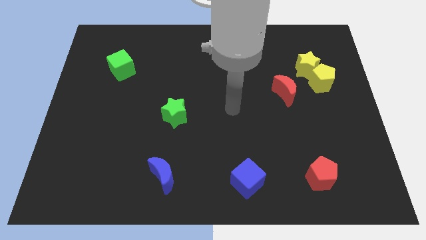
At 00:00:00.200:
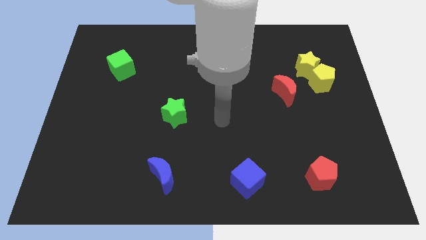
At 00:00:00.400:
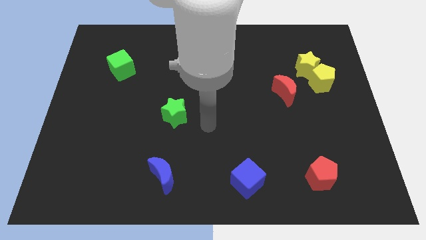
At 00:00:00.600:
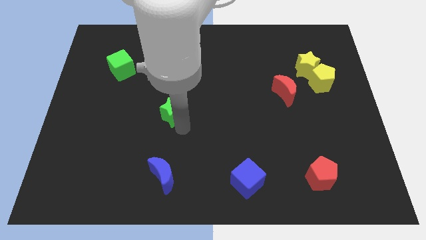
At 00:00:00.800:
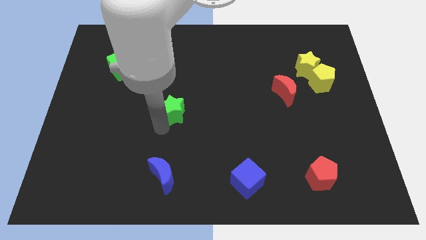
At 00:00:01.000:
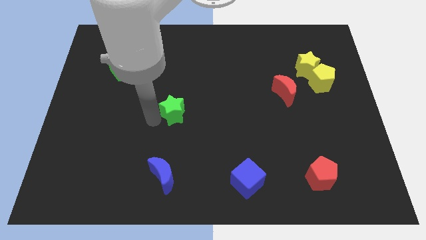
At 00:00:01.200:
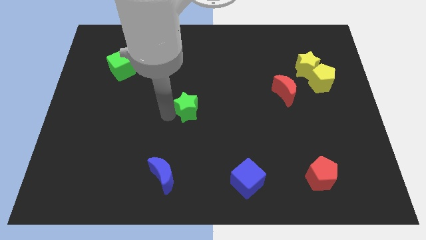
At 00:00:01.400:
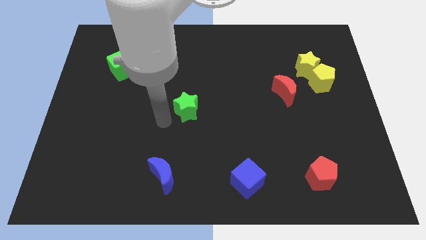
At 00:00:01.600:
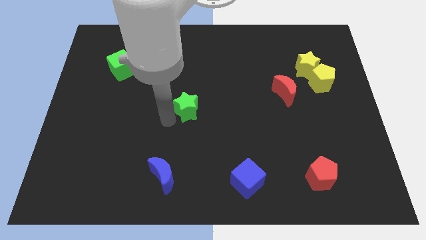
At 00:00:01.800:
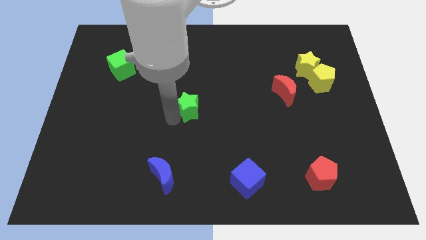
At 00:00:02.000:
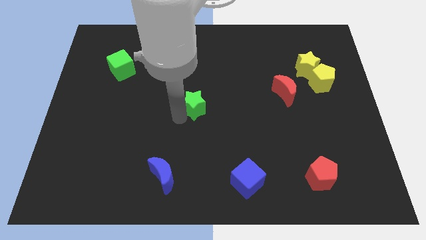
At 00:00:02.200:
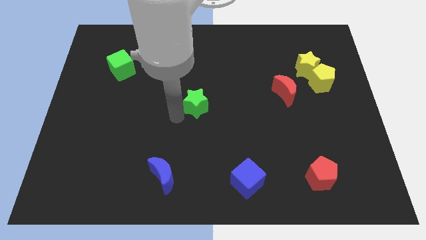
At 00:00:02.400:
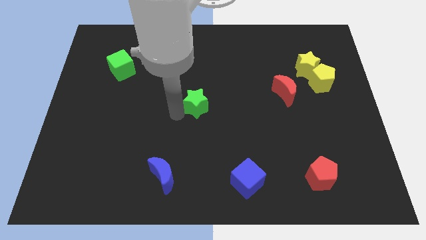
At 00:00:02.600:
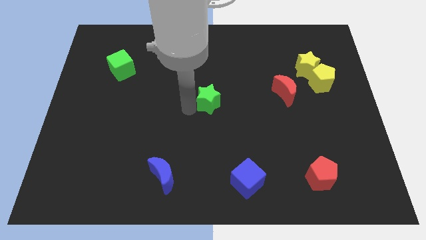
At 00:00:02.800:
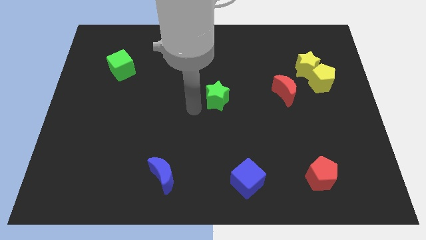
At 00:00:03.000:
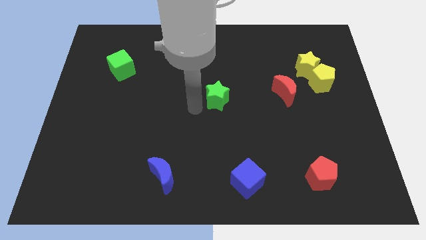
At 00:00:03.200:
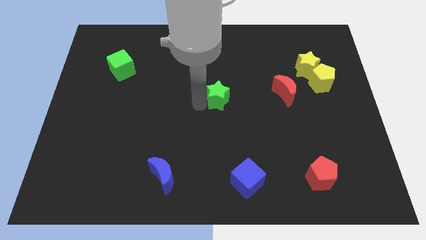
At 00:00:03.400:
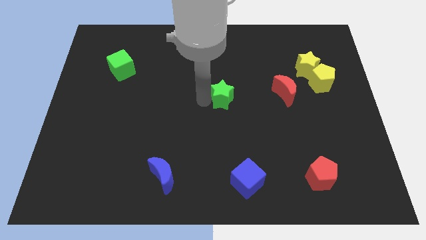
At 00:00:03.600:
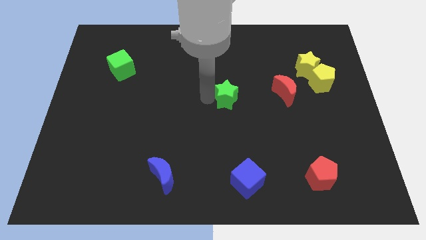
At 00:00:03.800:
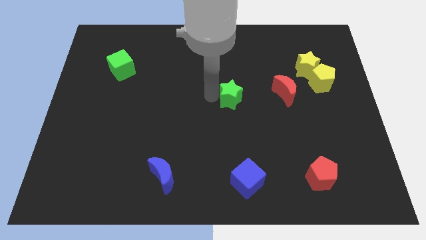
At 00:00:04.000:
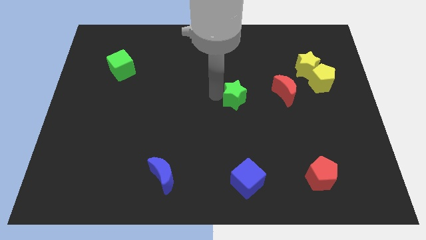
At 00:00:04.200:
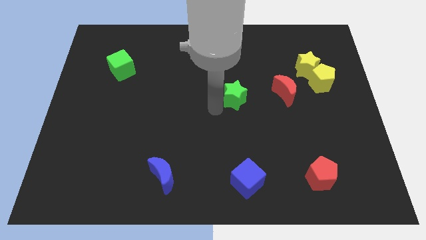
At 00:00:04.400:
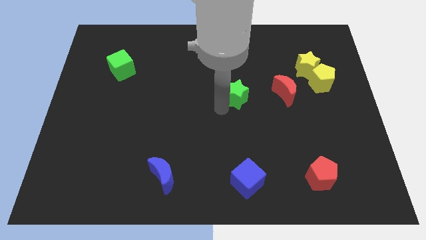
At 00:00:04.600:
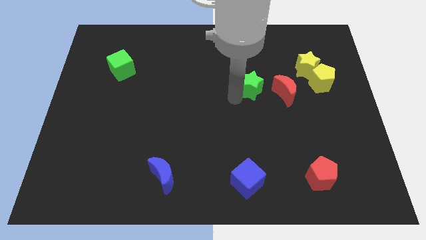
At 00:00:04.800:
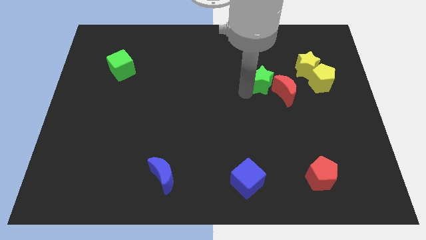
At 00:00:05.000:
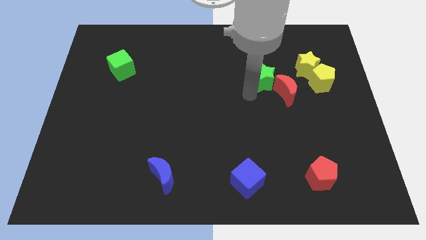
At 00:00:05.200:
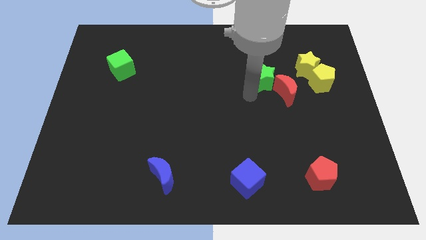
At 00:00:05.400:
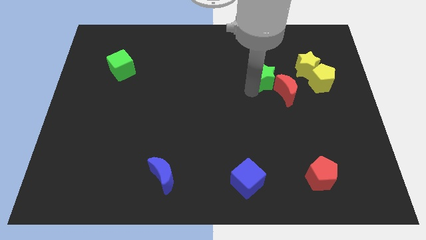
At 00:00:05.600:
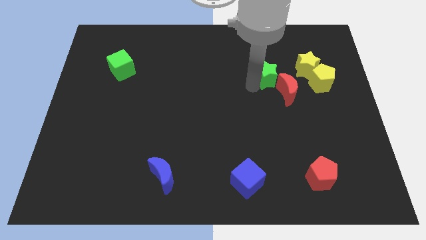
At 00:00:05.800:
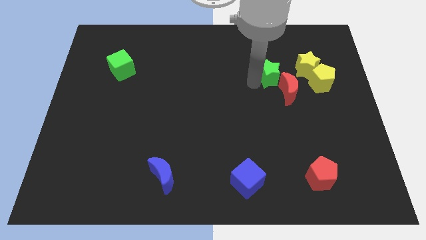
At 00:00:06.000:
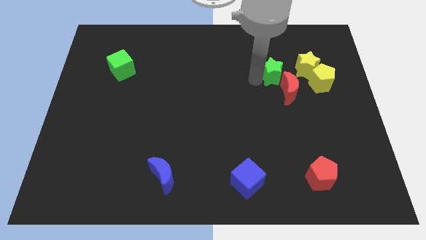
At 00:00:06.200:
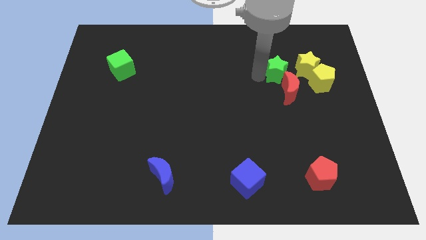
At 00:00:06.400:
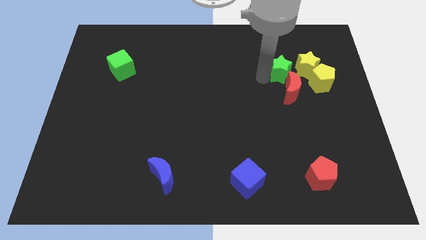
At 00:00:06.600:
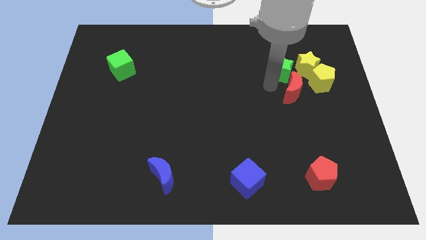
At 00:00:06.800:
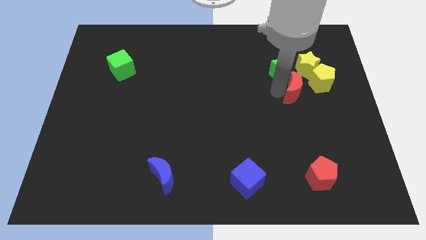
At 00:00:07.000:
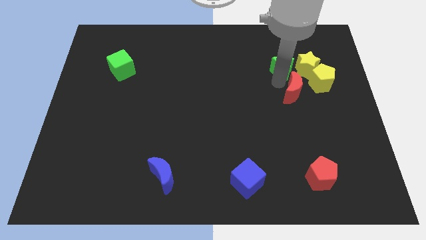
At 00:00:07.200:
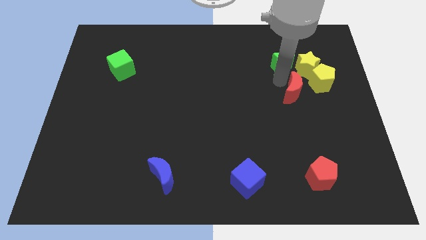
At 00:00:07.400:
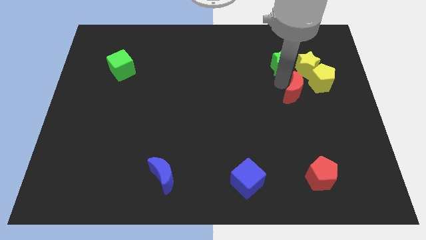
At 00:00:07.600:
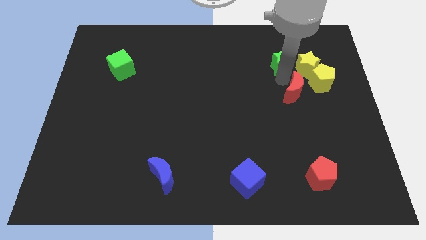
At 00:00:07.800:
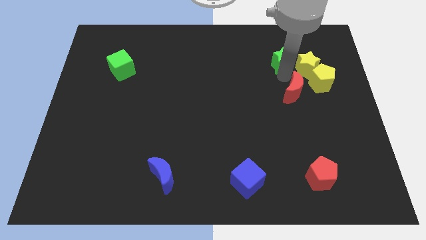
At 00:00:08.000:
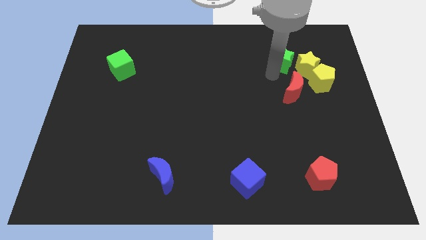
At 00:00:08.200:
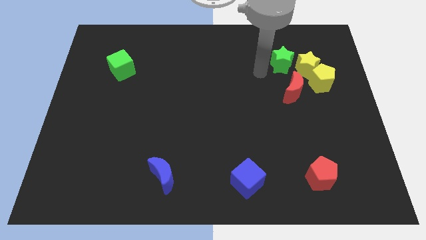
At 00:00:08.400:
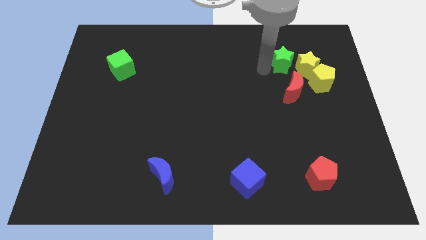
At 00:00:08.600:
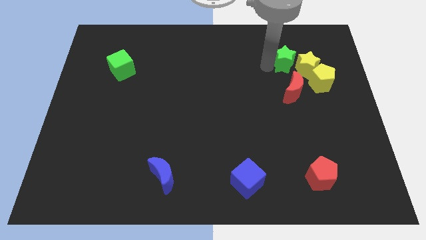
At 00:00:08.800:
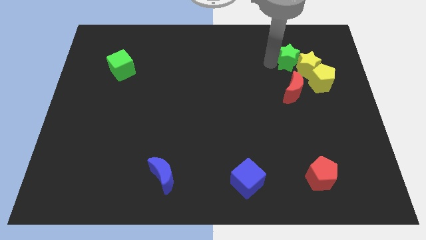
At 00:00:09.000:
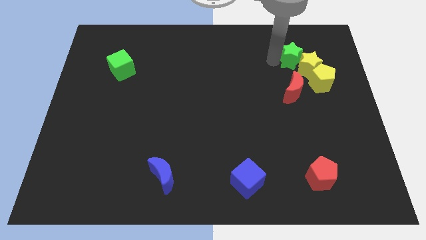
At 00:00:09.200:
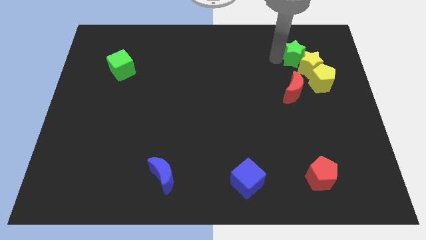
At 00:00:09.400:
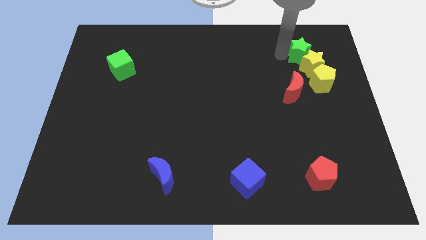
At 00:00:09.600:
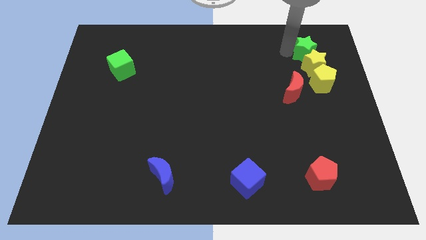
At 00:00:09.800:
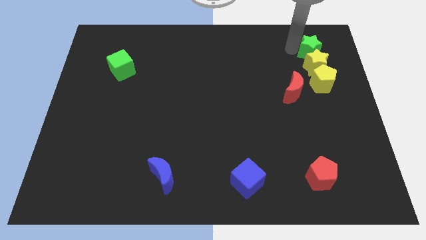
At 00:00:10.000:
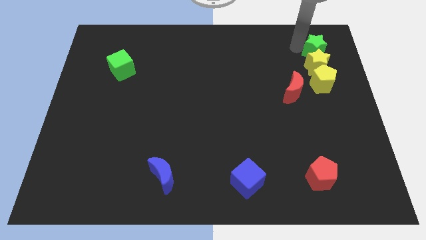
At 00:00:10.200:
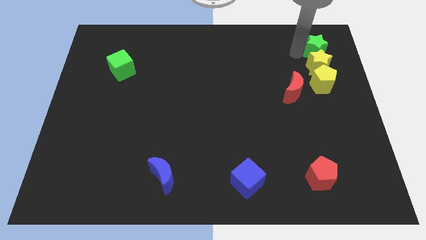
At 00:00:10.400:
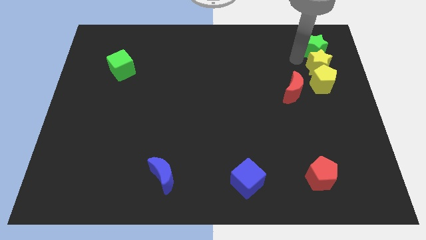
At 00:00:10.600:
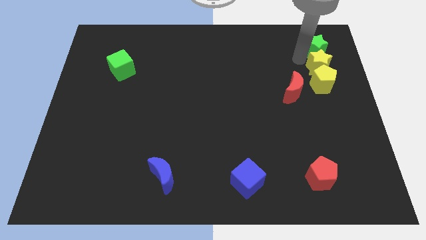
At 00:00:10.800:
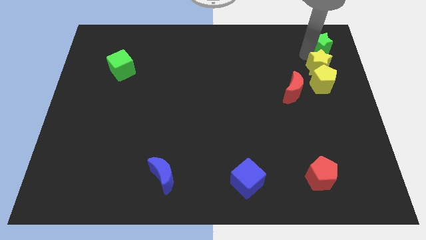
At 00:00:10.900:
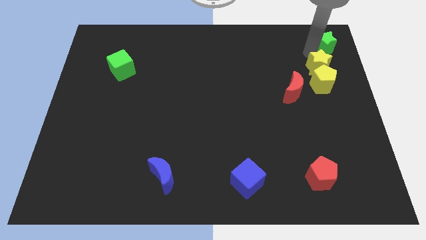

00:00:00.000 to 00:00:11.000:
slide the green star to the upper right corner

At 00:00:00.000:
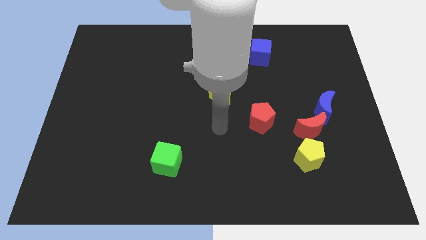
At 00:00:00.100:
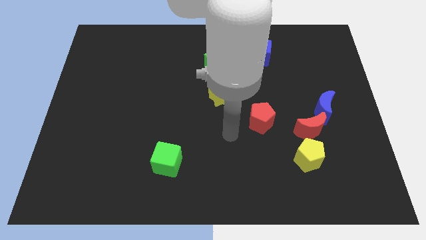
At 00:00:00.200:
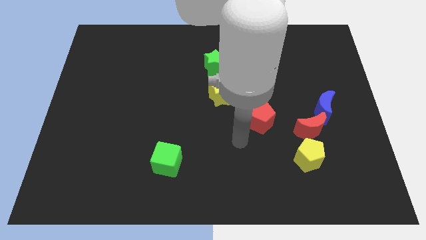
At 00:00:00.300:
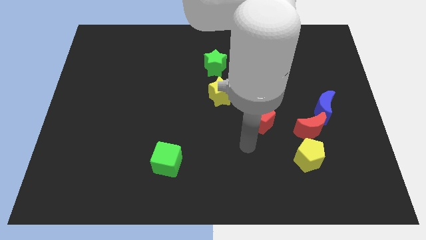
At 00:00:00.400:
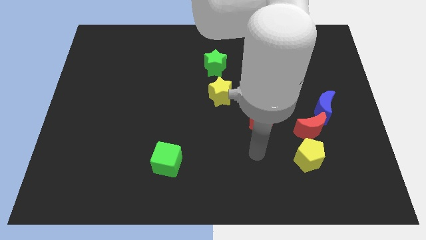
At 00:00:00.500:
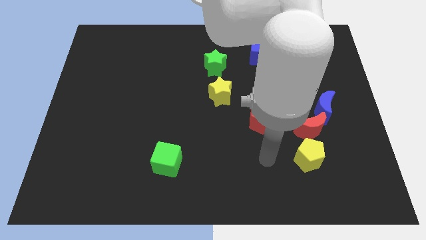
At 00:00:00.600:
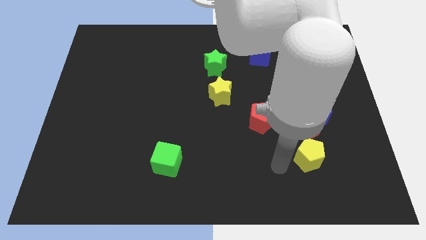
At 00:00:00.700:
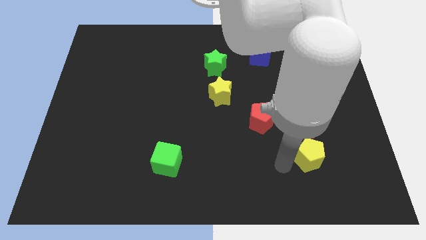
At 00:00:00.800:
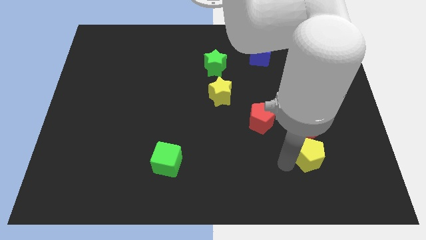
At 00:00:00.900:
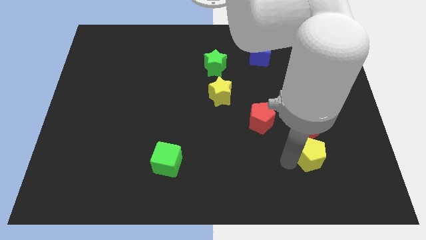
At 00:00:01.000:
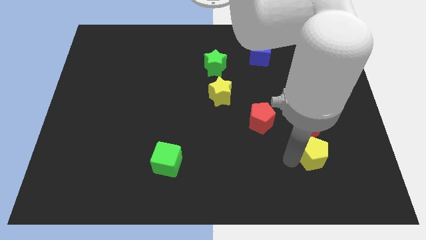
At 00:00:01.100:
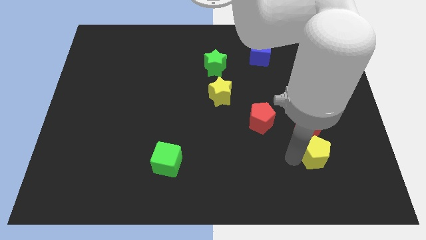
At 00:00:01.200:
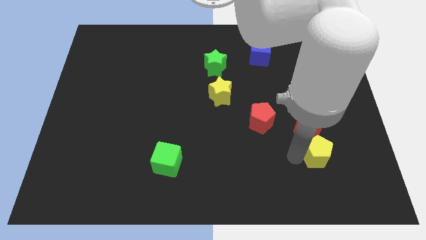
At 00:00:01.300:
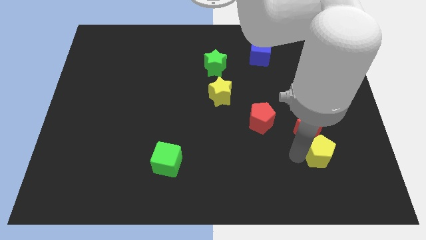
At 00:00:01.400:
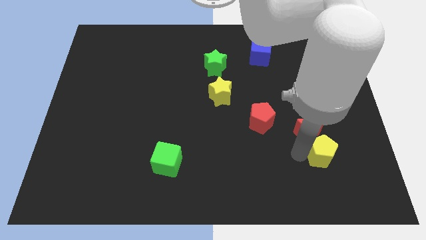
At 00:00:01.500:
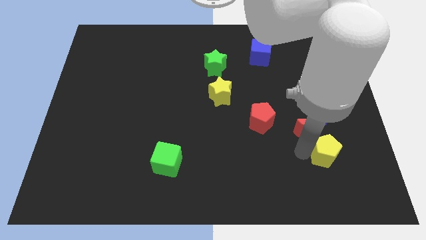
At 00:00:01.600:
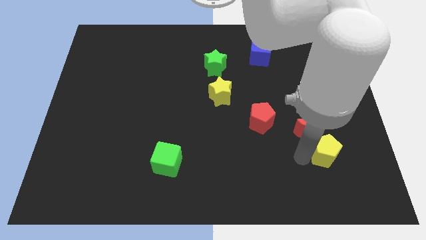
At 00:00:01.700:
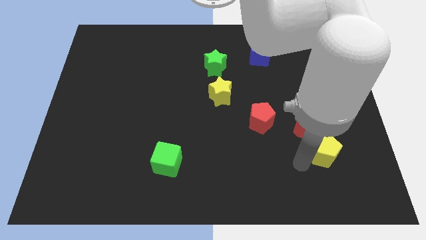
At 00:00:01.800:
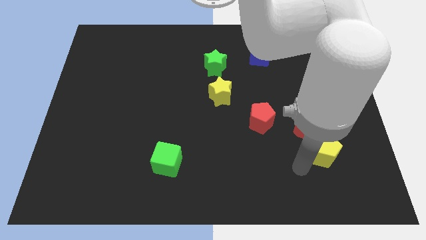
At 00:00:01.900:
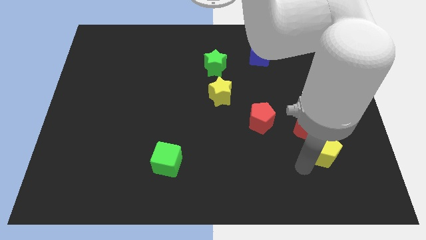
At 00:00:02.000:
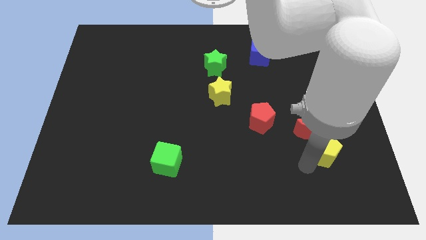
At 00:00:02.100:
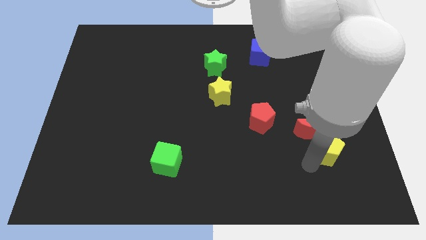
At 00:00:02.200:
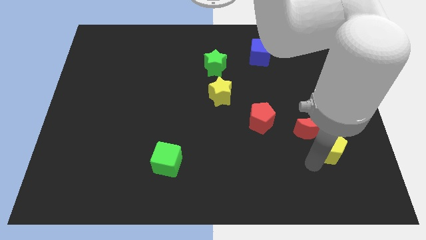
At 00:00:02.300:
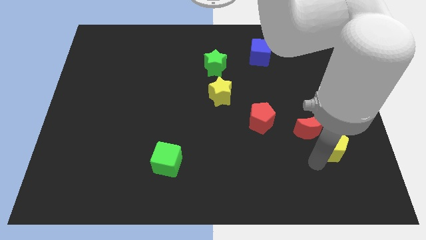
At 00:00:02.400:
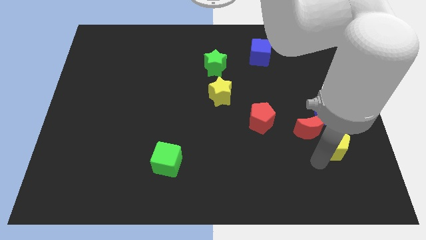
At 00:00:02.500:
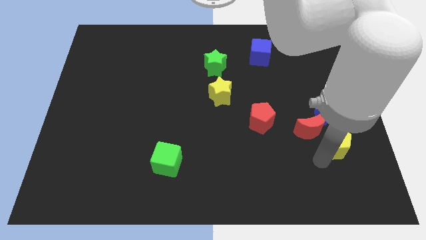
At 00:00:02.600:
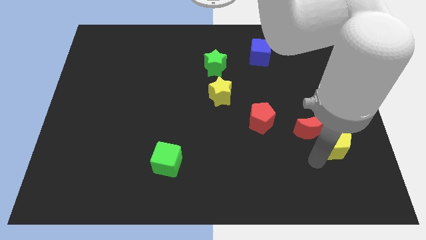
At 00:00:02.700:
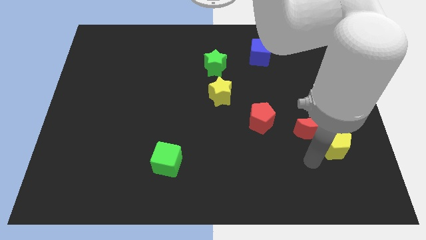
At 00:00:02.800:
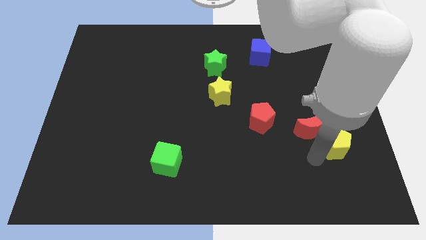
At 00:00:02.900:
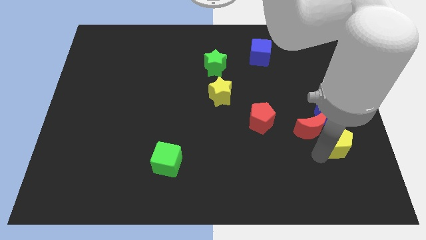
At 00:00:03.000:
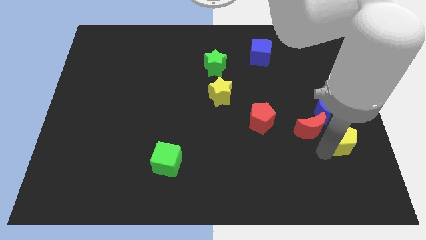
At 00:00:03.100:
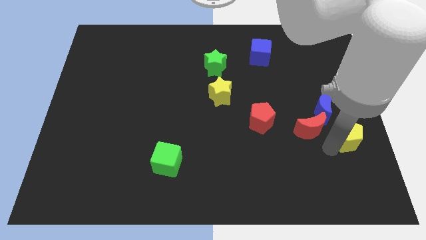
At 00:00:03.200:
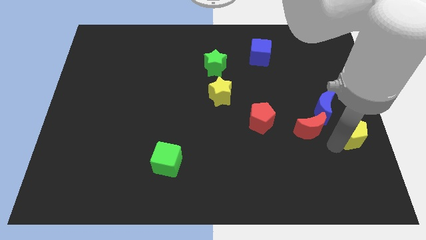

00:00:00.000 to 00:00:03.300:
put the yellow pentagon to the center right
